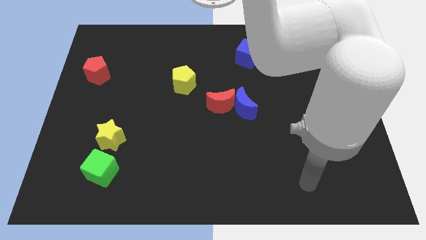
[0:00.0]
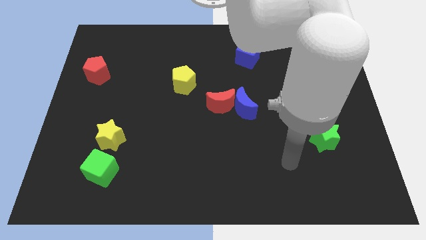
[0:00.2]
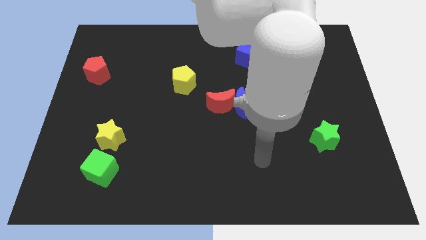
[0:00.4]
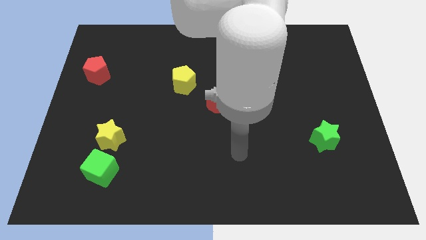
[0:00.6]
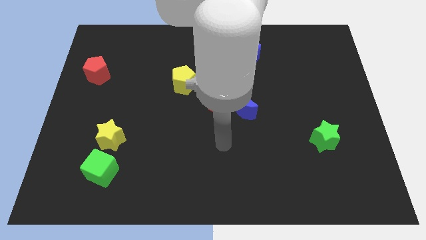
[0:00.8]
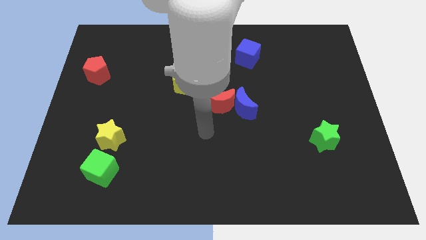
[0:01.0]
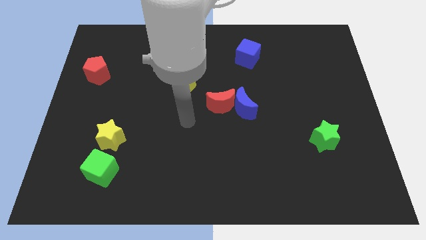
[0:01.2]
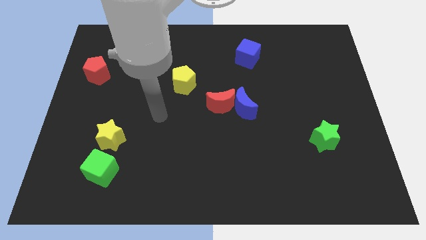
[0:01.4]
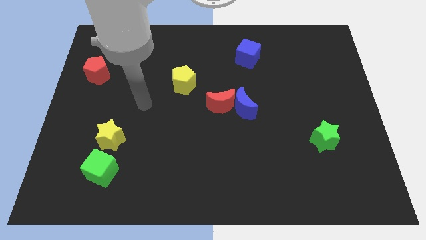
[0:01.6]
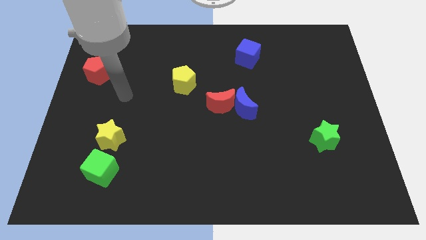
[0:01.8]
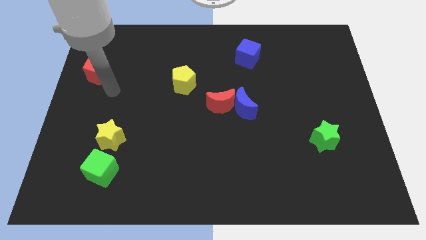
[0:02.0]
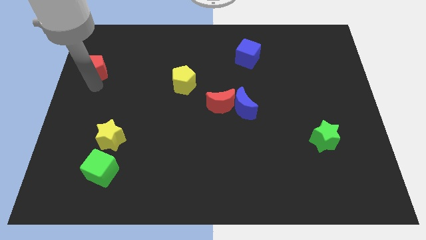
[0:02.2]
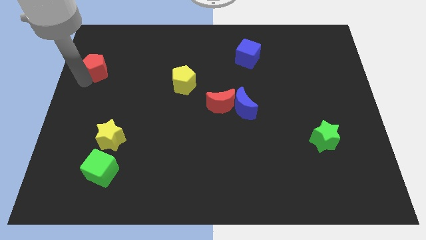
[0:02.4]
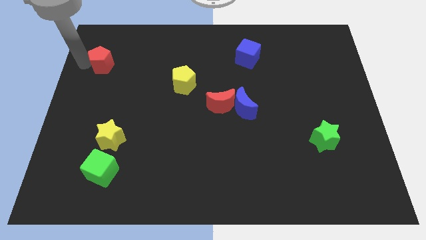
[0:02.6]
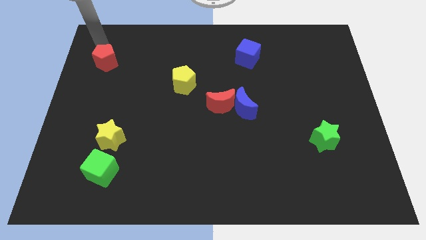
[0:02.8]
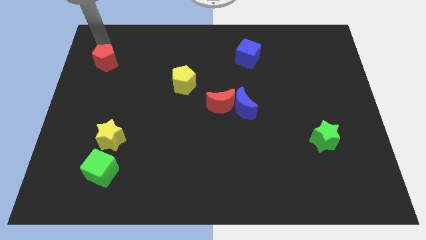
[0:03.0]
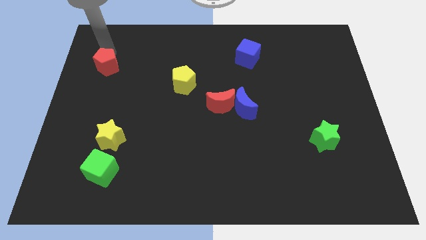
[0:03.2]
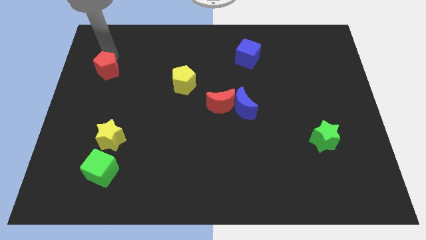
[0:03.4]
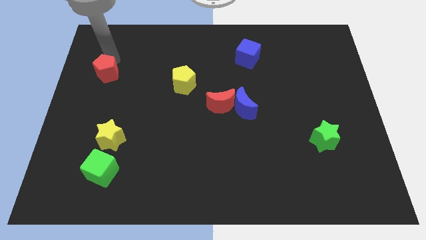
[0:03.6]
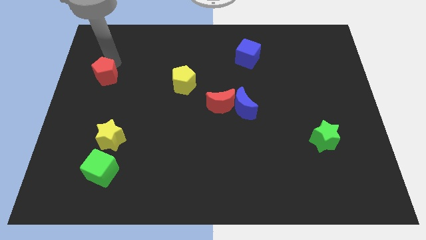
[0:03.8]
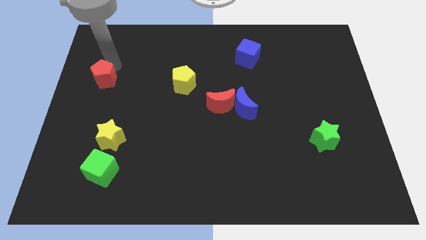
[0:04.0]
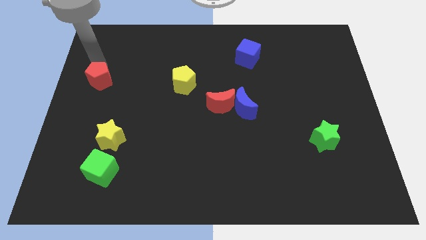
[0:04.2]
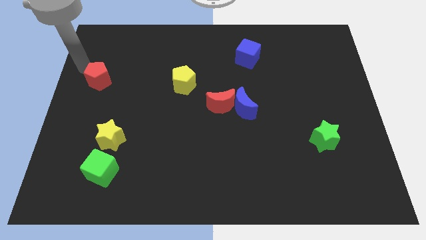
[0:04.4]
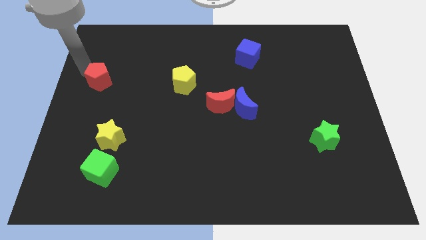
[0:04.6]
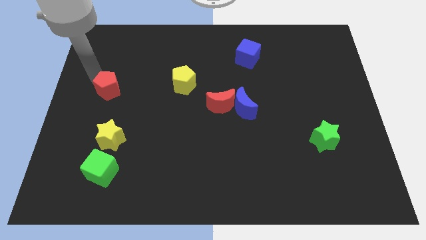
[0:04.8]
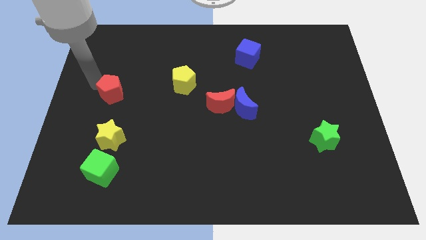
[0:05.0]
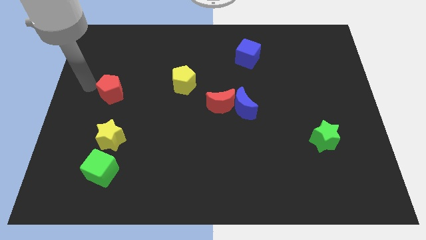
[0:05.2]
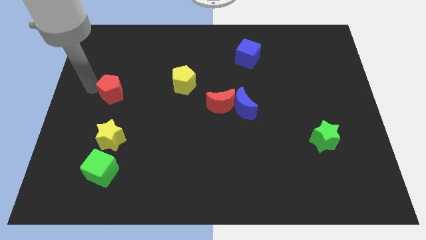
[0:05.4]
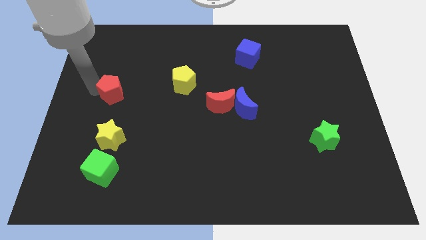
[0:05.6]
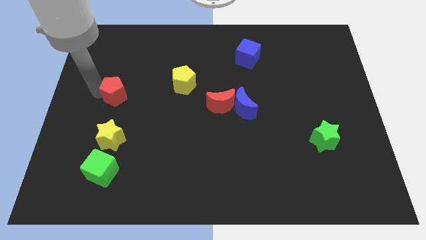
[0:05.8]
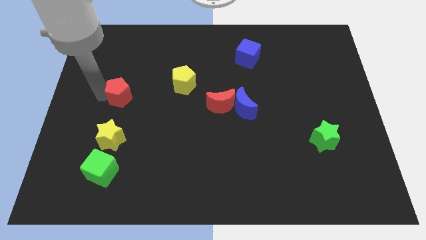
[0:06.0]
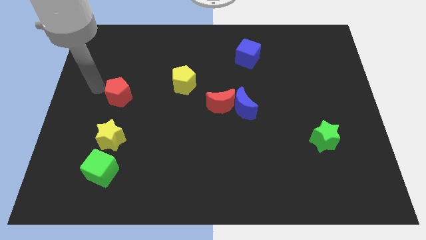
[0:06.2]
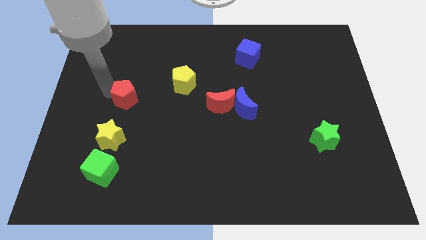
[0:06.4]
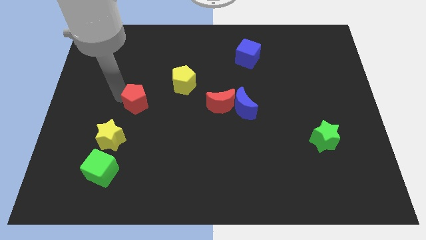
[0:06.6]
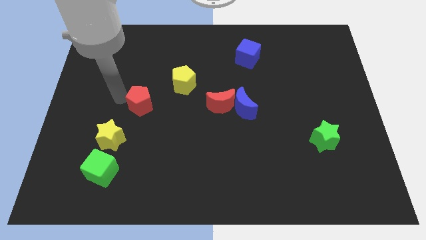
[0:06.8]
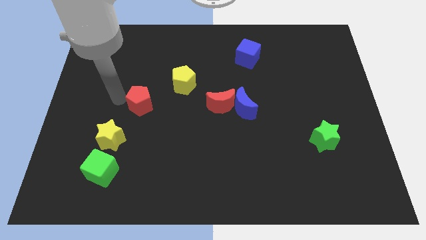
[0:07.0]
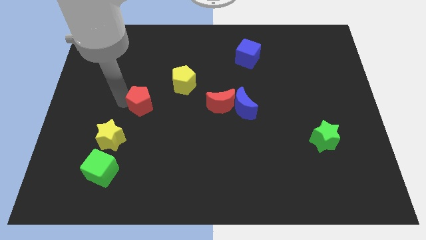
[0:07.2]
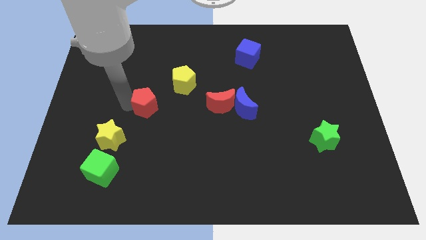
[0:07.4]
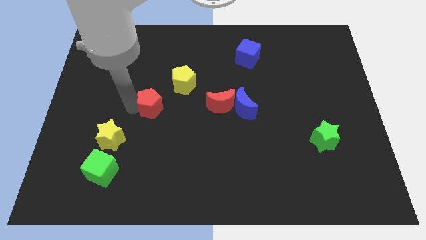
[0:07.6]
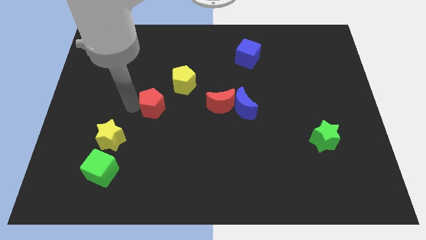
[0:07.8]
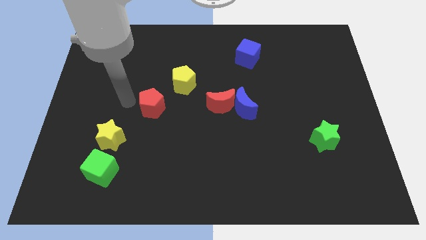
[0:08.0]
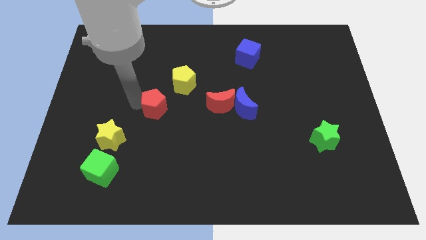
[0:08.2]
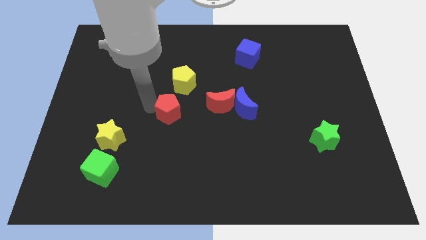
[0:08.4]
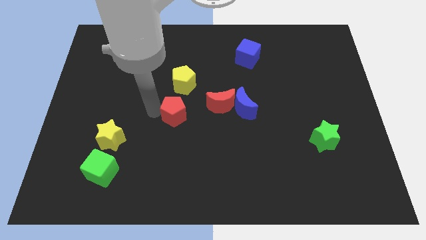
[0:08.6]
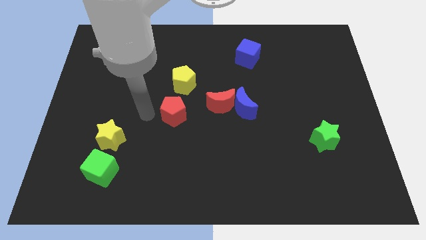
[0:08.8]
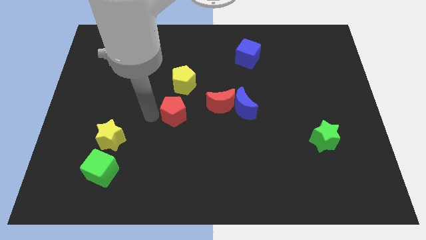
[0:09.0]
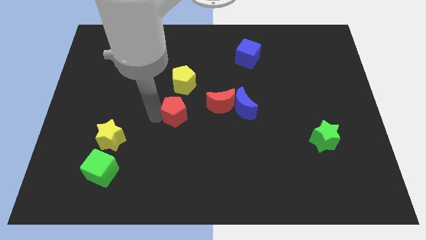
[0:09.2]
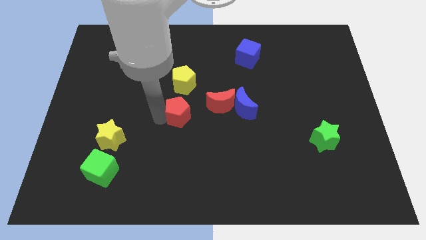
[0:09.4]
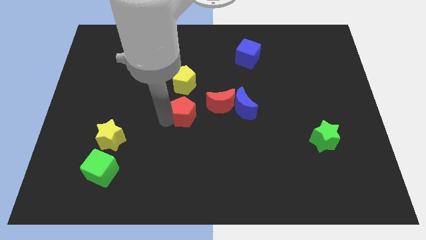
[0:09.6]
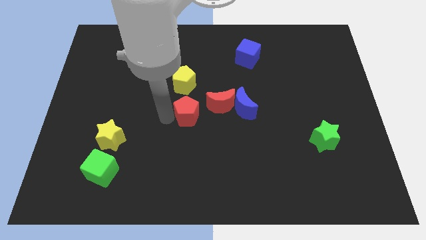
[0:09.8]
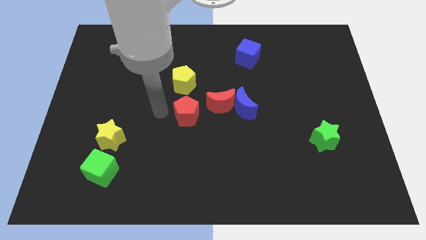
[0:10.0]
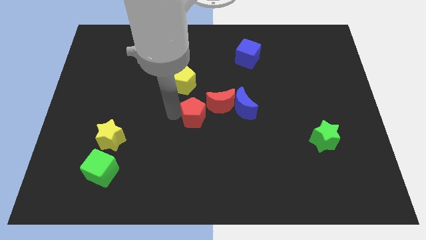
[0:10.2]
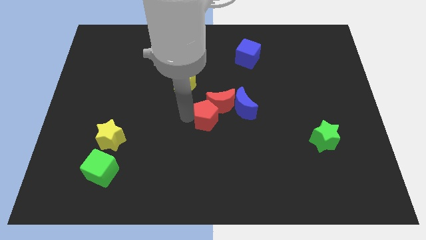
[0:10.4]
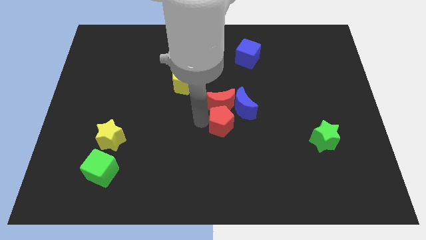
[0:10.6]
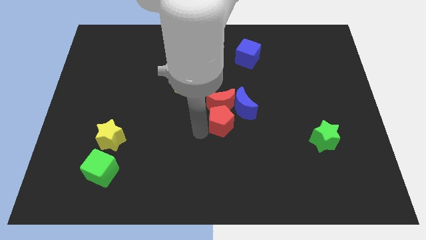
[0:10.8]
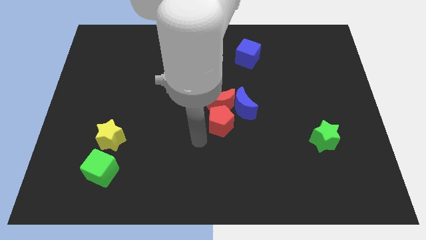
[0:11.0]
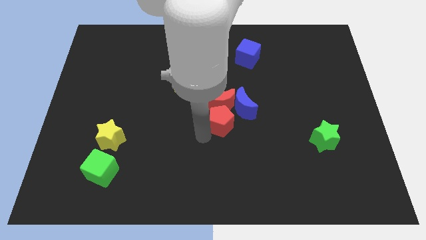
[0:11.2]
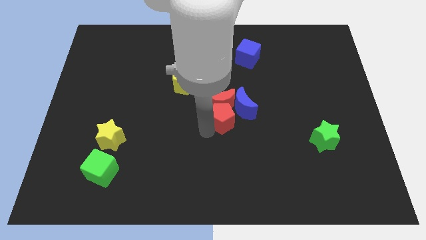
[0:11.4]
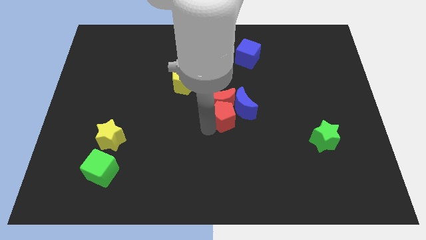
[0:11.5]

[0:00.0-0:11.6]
push the red pentagon close to the blue moon

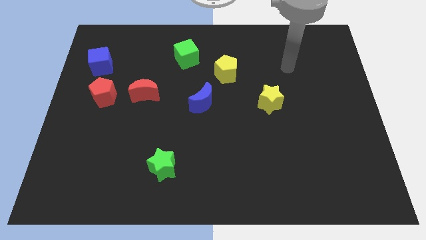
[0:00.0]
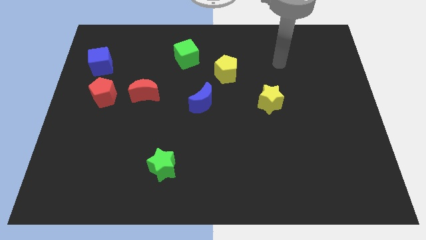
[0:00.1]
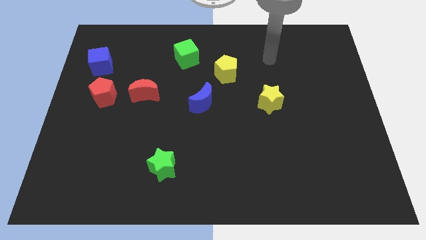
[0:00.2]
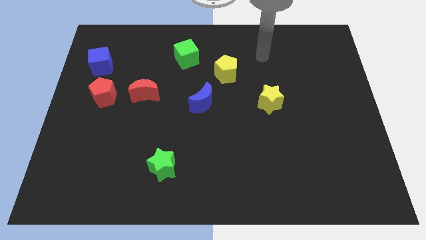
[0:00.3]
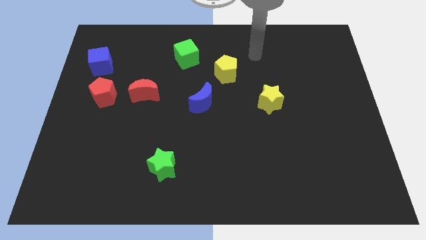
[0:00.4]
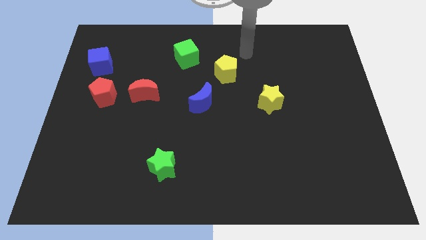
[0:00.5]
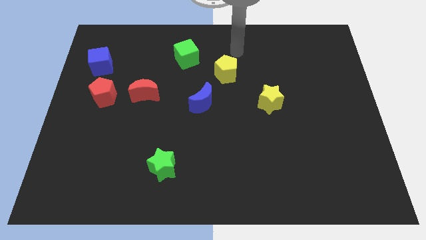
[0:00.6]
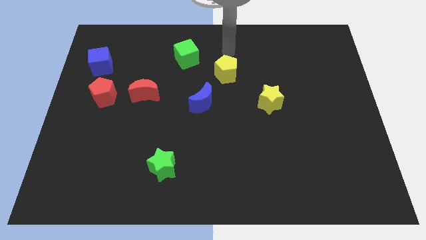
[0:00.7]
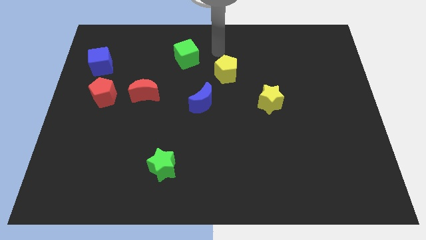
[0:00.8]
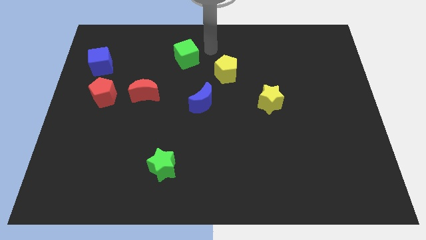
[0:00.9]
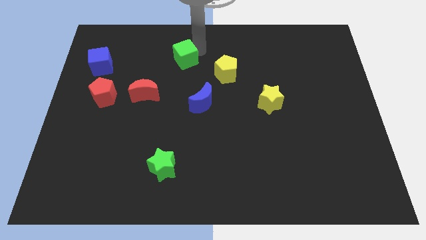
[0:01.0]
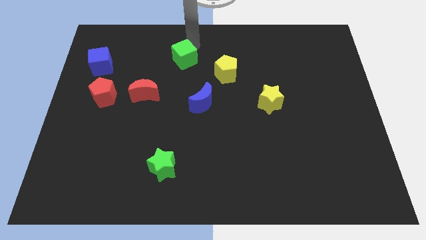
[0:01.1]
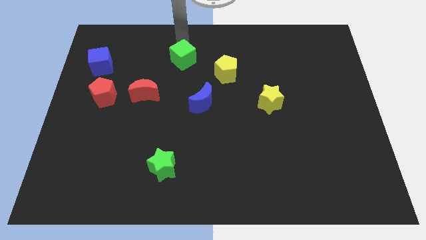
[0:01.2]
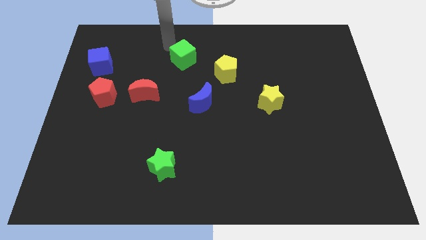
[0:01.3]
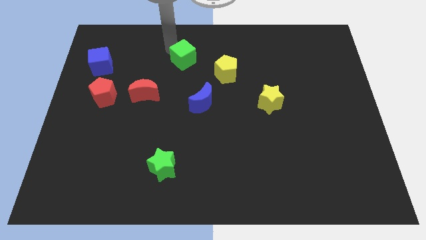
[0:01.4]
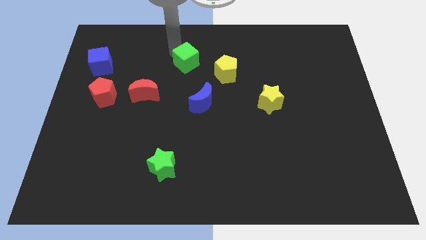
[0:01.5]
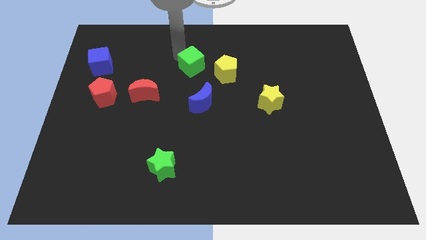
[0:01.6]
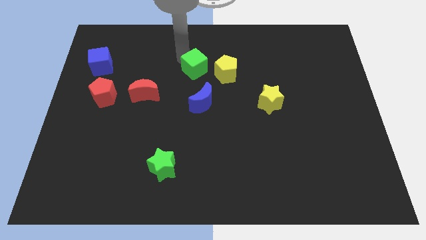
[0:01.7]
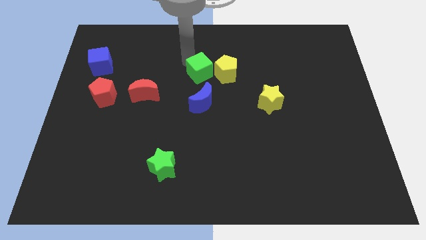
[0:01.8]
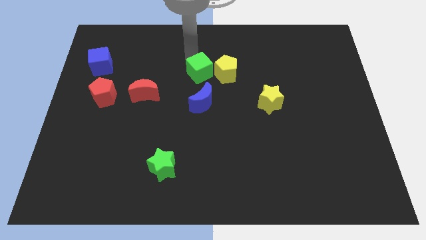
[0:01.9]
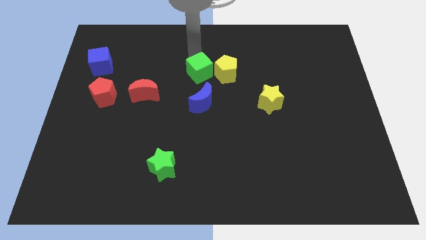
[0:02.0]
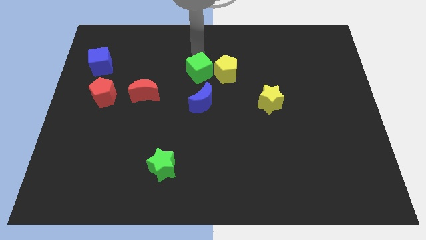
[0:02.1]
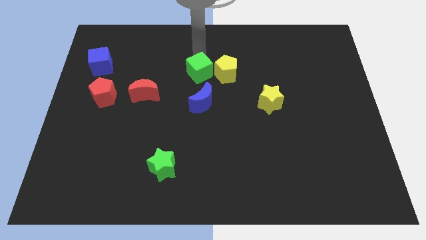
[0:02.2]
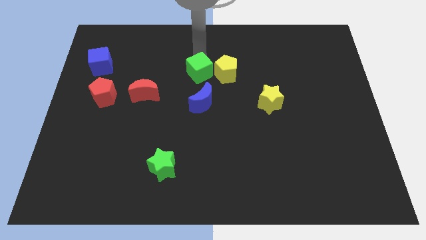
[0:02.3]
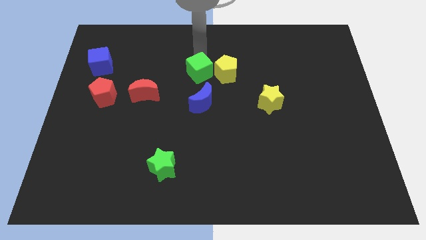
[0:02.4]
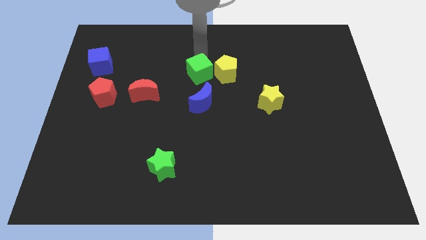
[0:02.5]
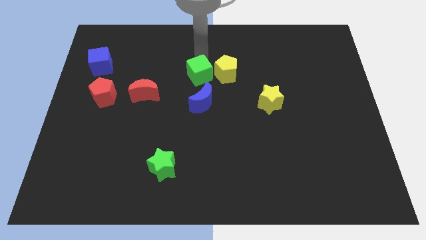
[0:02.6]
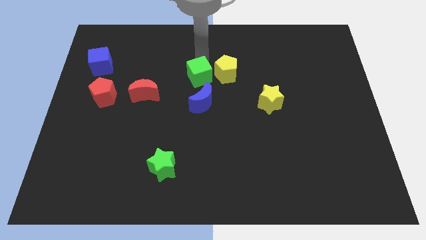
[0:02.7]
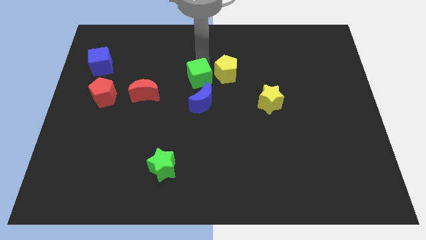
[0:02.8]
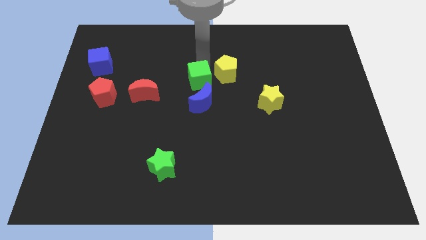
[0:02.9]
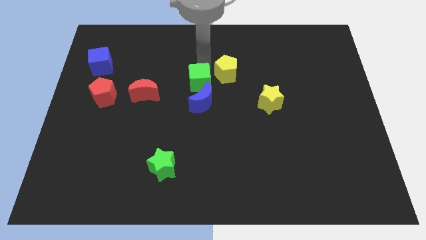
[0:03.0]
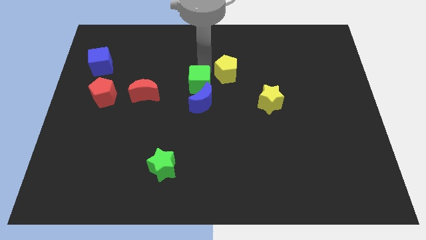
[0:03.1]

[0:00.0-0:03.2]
put the green cube to the blue moon
